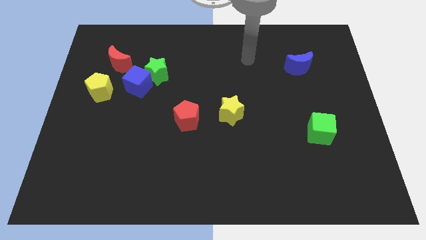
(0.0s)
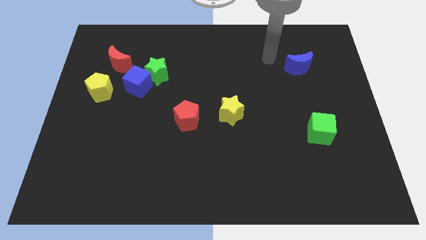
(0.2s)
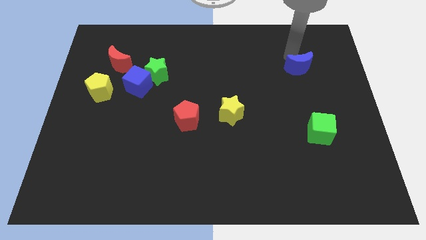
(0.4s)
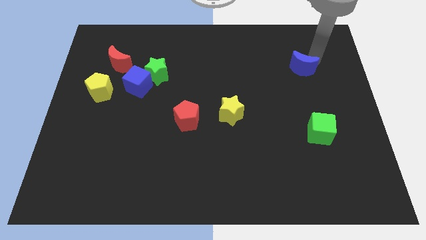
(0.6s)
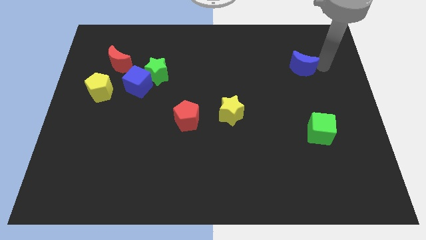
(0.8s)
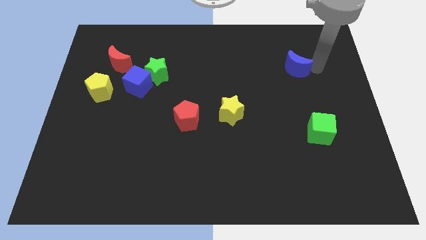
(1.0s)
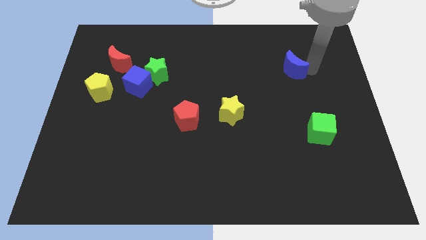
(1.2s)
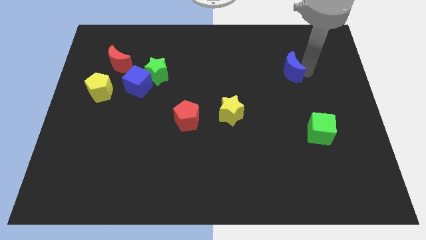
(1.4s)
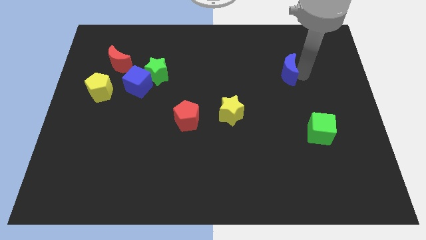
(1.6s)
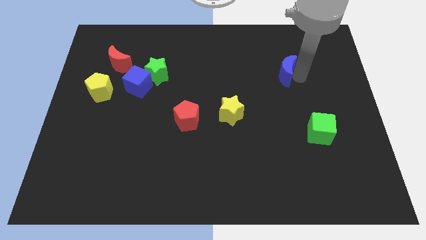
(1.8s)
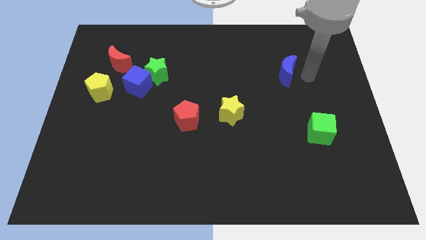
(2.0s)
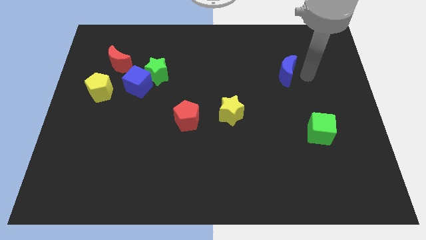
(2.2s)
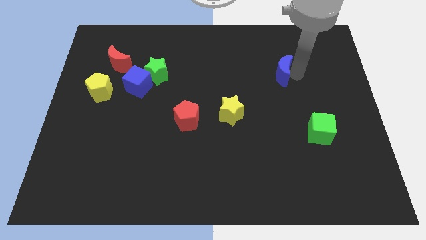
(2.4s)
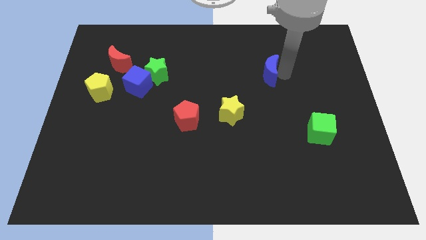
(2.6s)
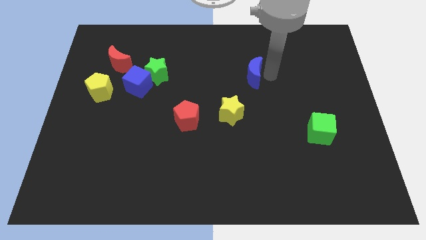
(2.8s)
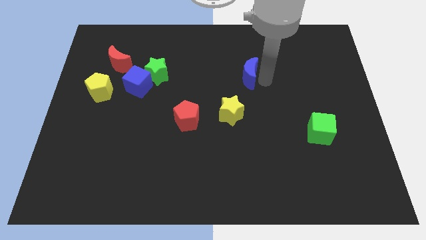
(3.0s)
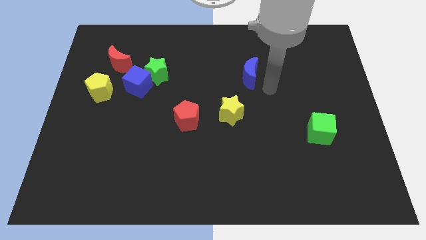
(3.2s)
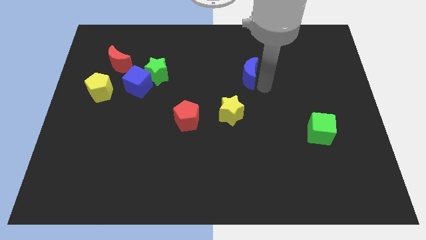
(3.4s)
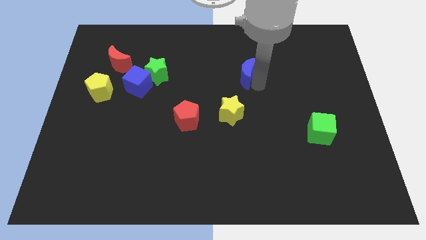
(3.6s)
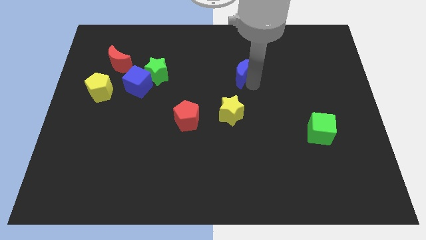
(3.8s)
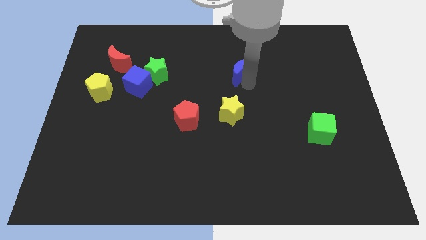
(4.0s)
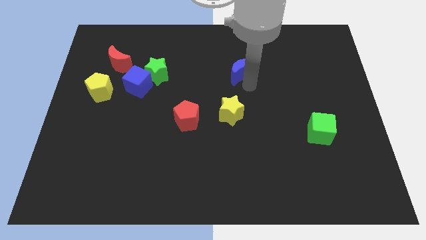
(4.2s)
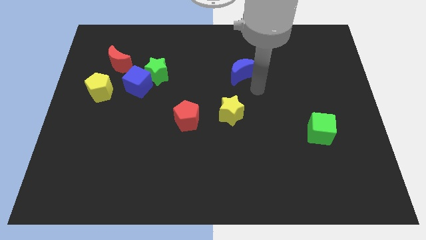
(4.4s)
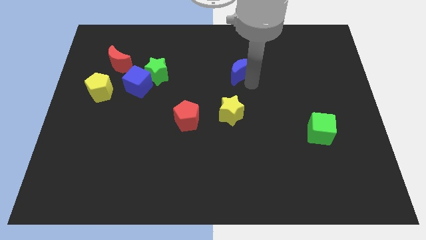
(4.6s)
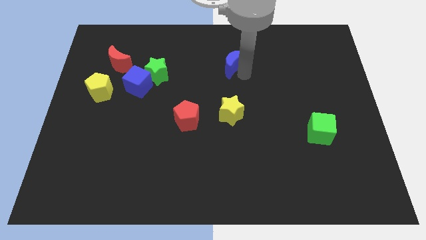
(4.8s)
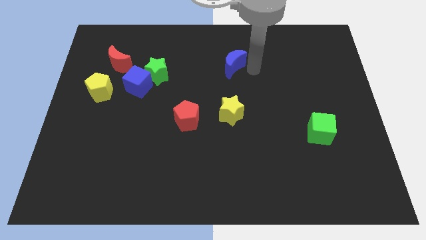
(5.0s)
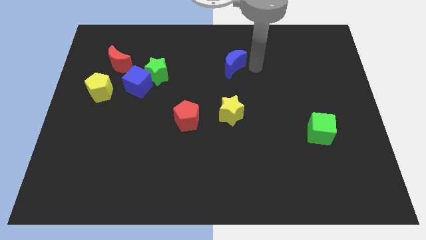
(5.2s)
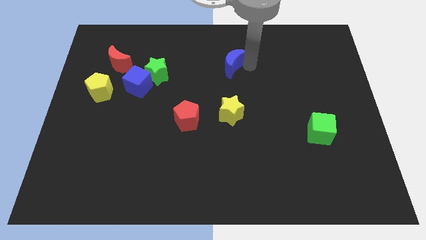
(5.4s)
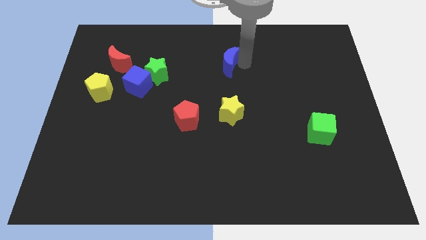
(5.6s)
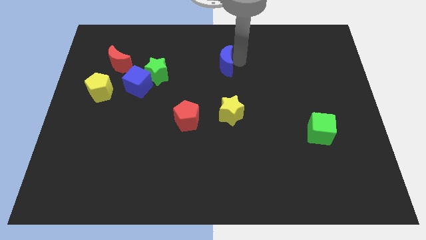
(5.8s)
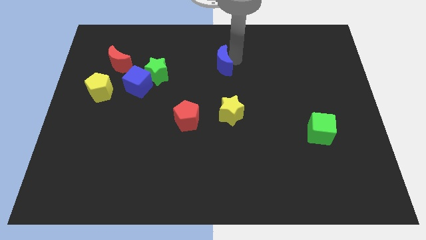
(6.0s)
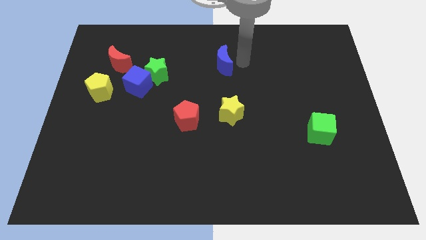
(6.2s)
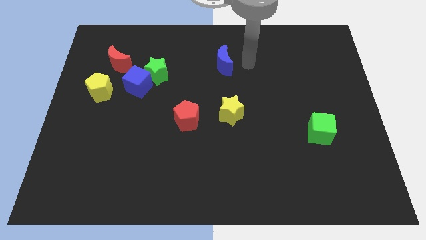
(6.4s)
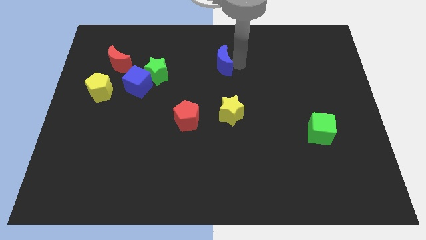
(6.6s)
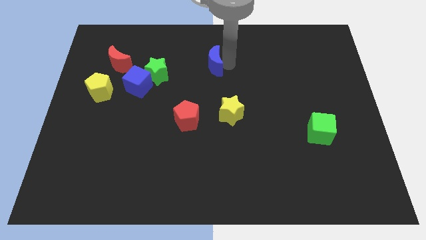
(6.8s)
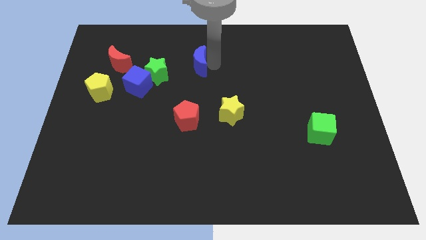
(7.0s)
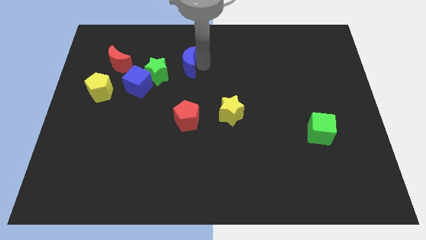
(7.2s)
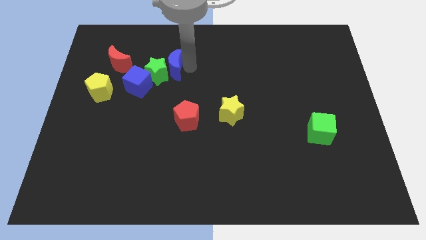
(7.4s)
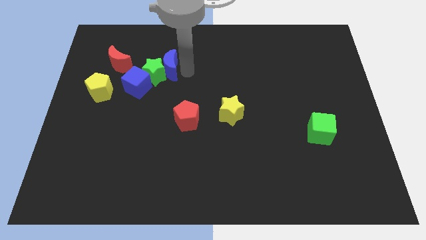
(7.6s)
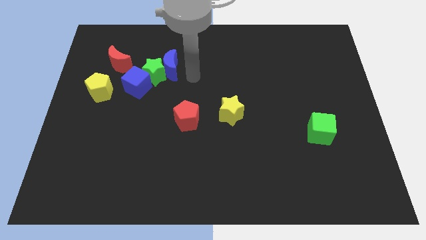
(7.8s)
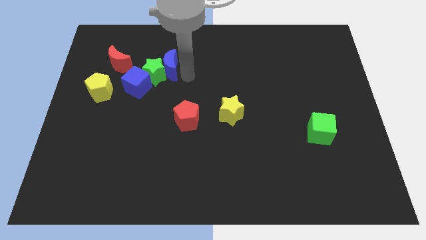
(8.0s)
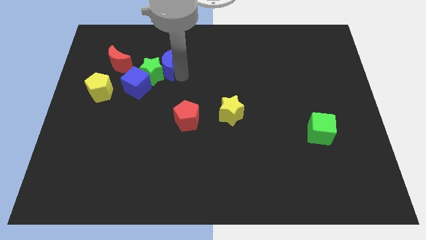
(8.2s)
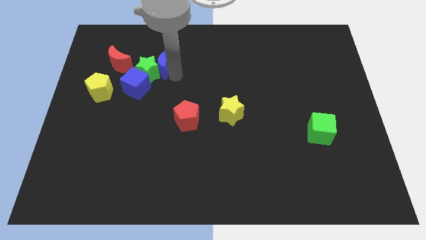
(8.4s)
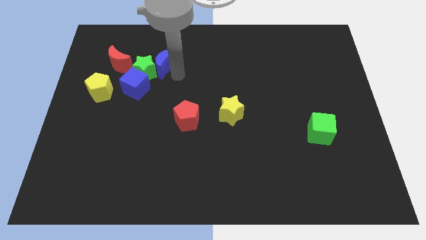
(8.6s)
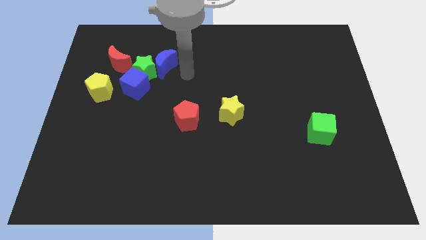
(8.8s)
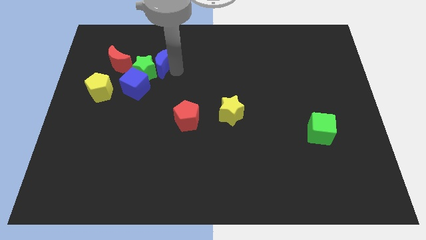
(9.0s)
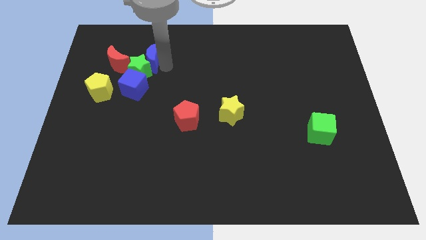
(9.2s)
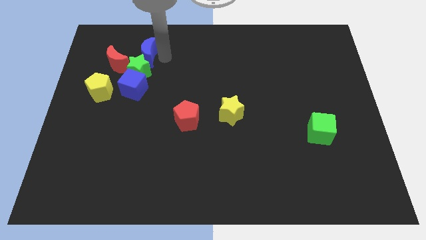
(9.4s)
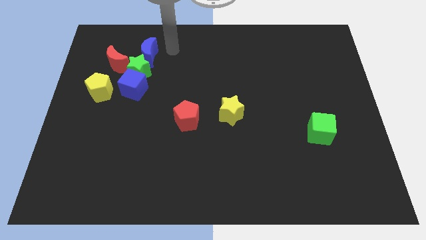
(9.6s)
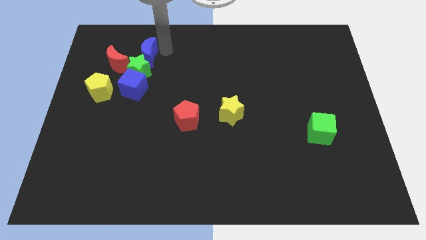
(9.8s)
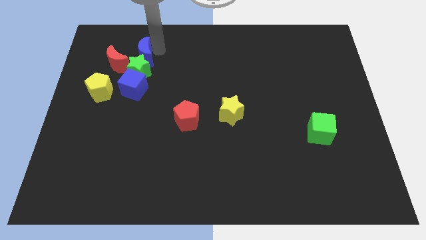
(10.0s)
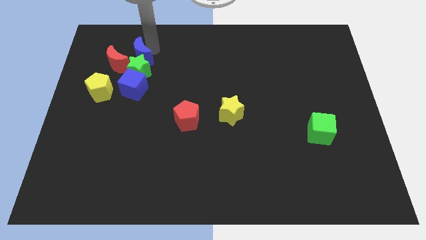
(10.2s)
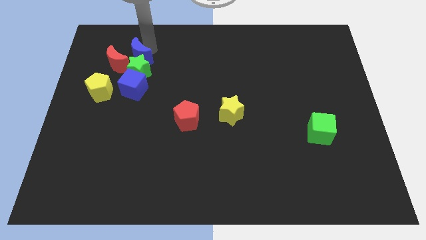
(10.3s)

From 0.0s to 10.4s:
push the blue moon next to the red moon

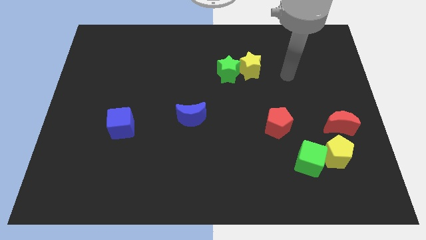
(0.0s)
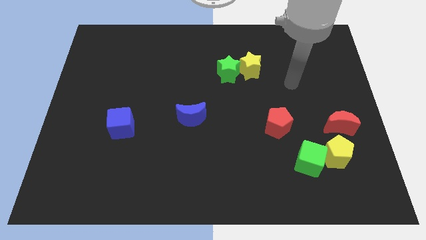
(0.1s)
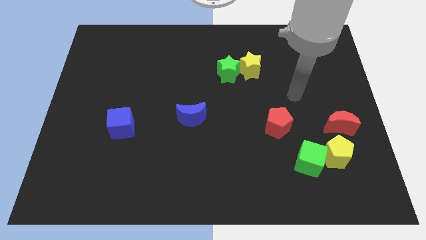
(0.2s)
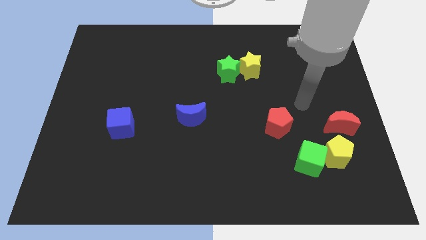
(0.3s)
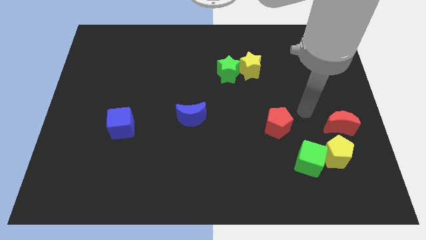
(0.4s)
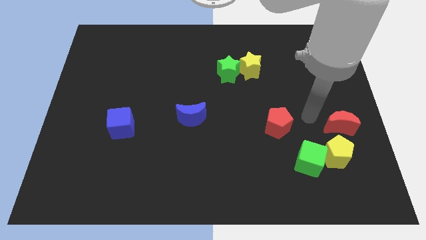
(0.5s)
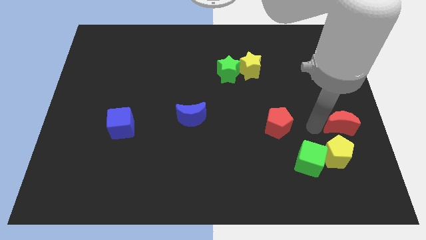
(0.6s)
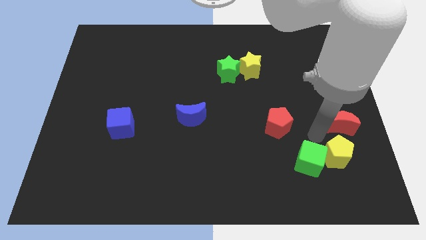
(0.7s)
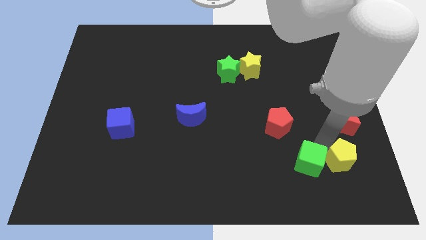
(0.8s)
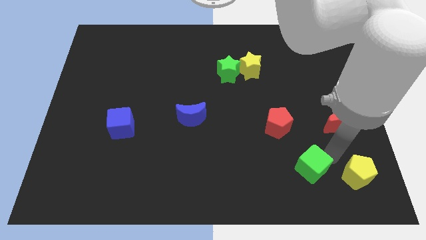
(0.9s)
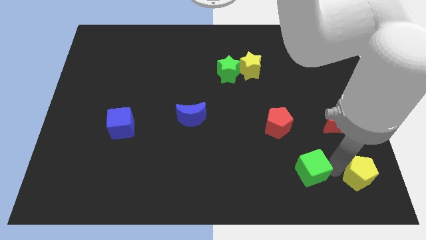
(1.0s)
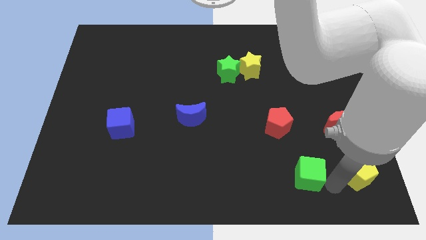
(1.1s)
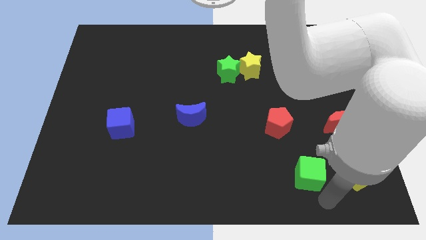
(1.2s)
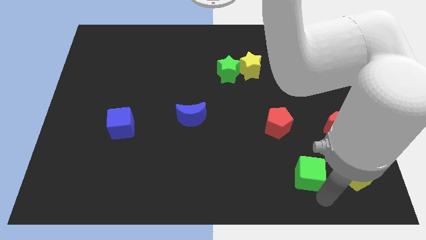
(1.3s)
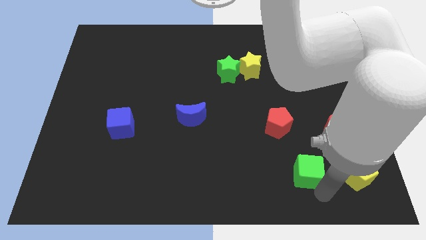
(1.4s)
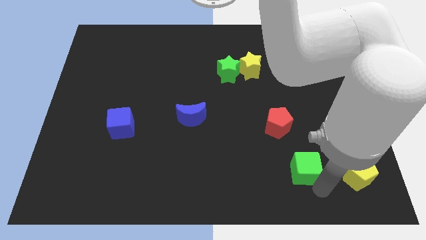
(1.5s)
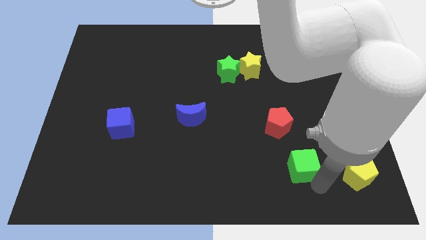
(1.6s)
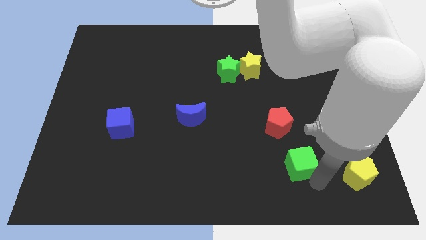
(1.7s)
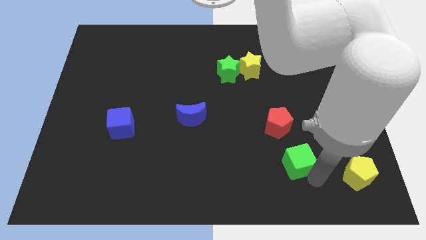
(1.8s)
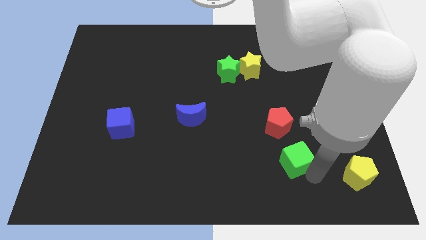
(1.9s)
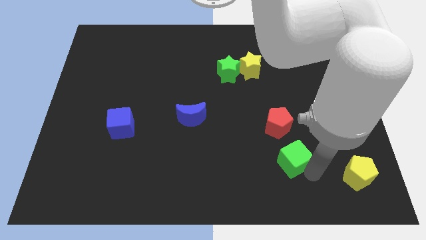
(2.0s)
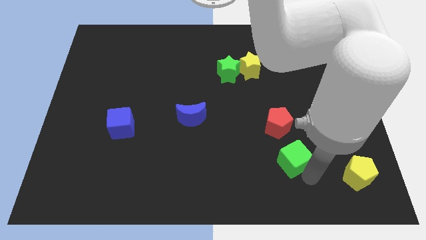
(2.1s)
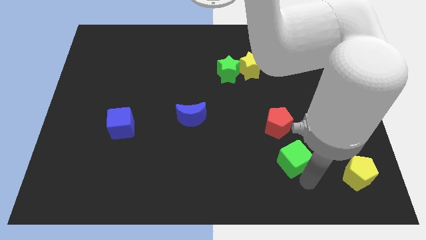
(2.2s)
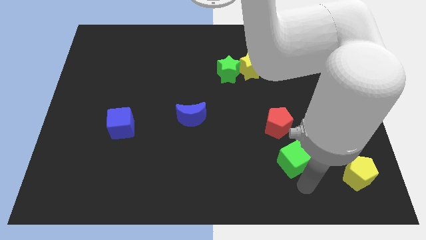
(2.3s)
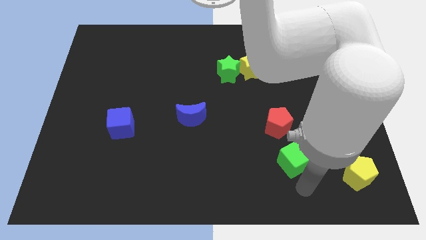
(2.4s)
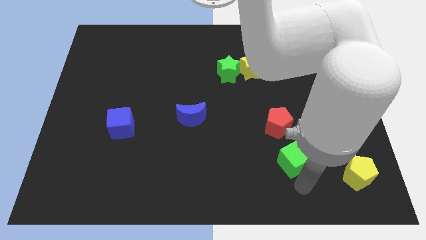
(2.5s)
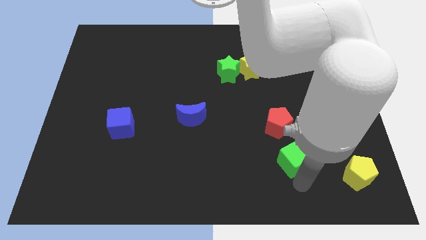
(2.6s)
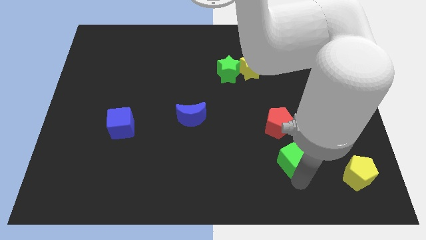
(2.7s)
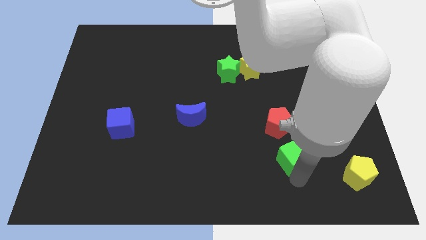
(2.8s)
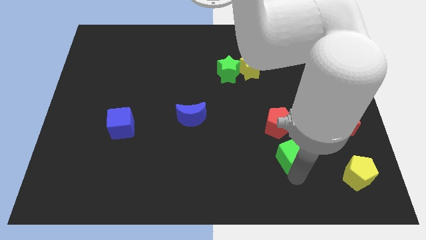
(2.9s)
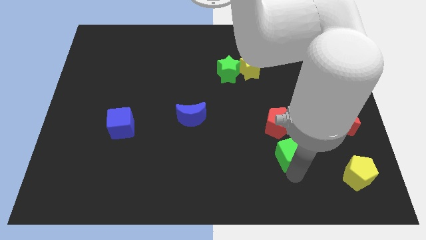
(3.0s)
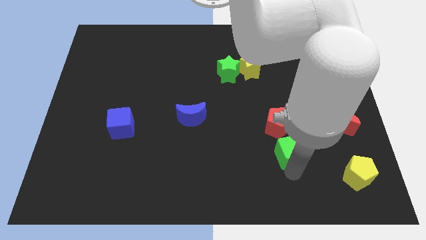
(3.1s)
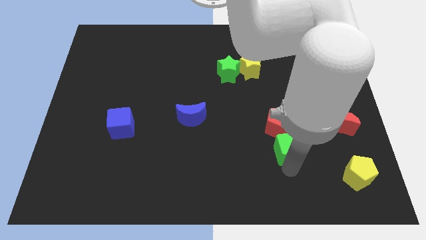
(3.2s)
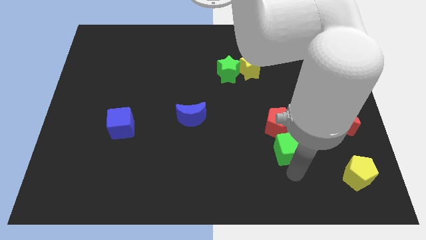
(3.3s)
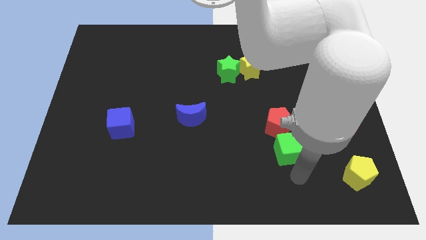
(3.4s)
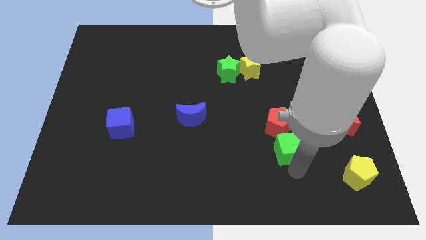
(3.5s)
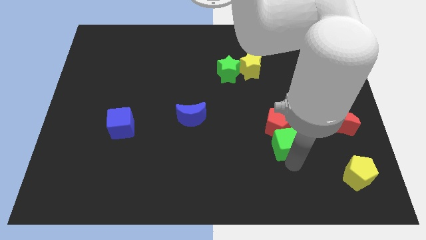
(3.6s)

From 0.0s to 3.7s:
move the green cube to the red pentagon
